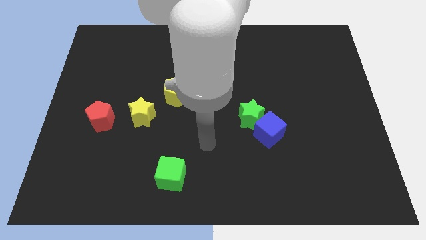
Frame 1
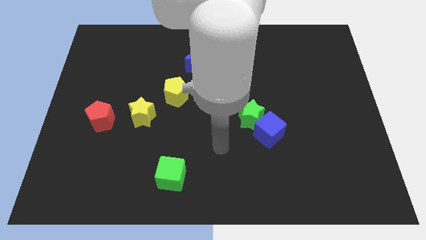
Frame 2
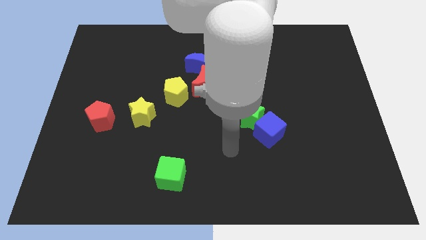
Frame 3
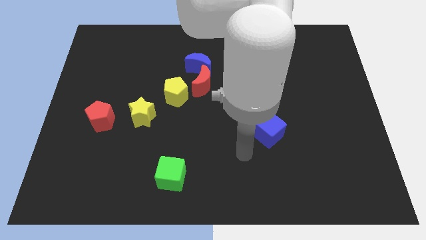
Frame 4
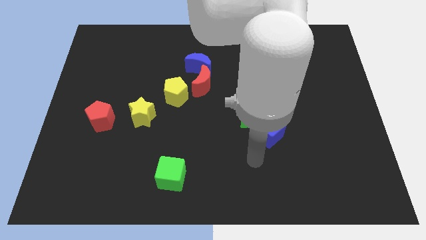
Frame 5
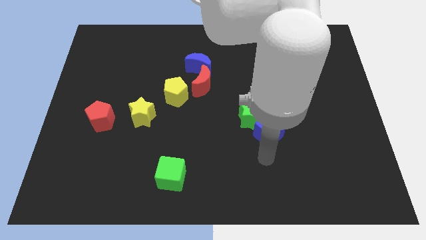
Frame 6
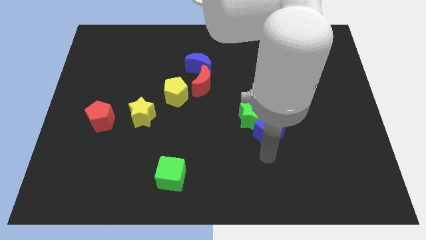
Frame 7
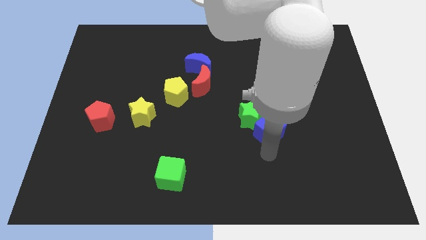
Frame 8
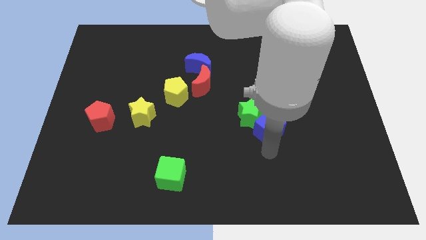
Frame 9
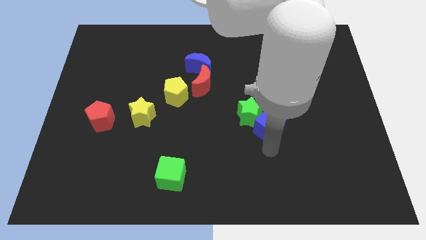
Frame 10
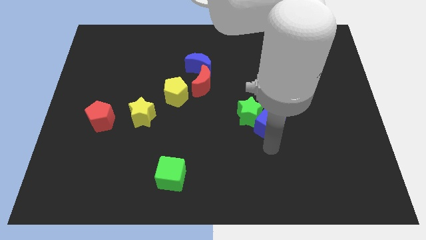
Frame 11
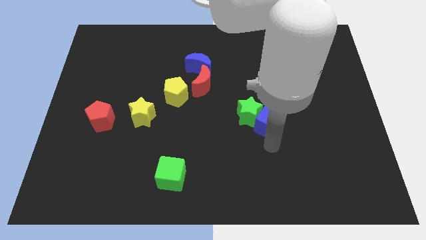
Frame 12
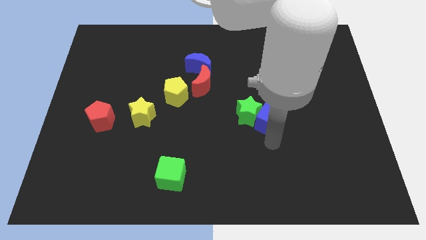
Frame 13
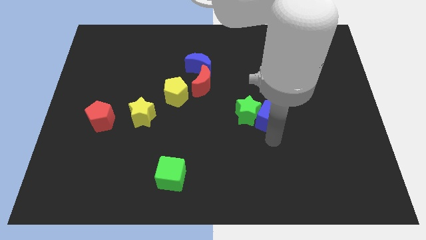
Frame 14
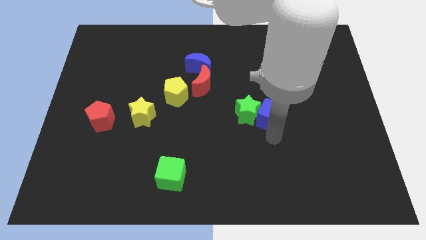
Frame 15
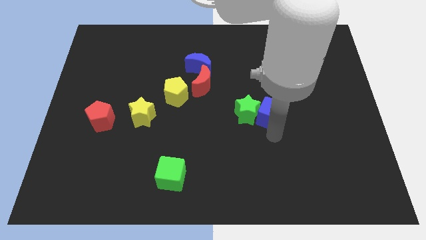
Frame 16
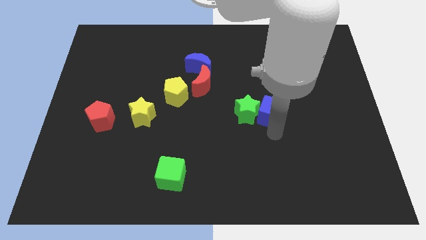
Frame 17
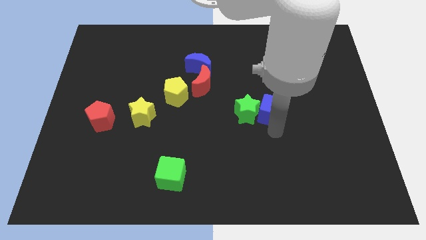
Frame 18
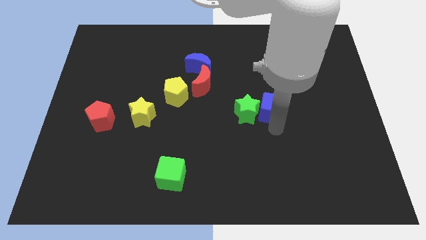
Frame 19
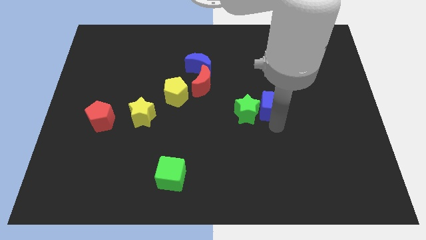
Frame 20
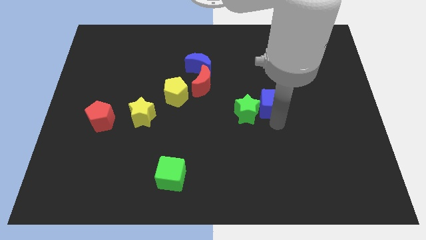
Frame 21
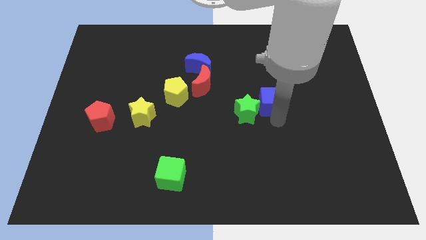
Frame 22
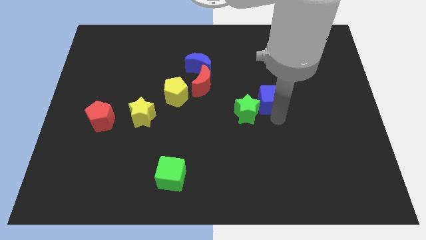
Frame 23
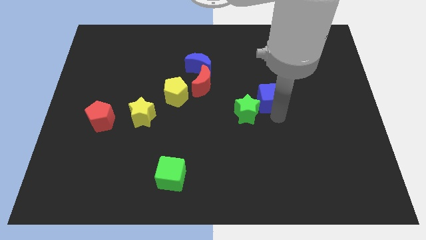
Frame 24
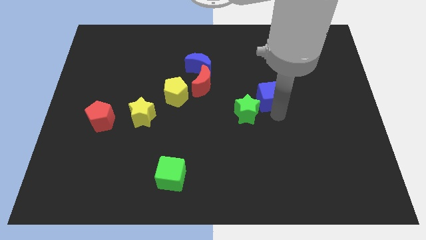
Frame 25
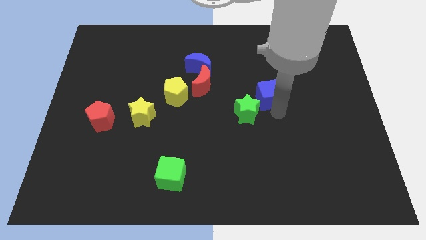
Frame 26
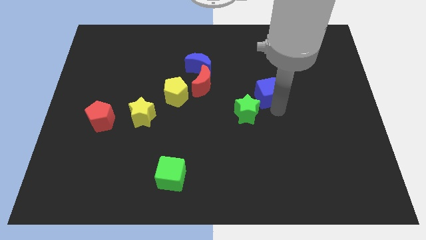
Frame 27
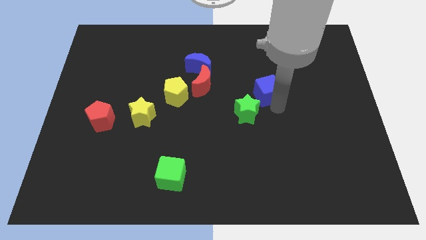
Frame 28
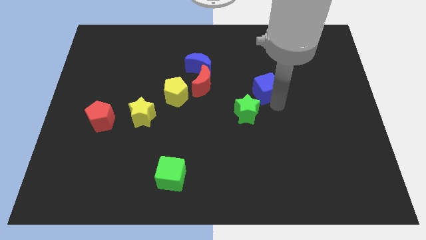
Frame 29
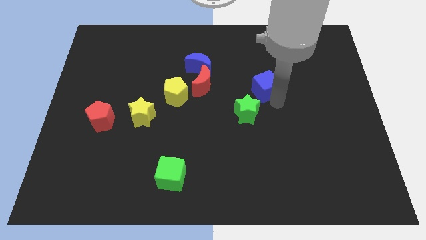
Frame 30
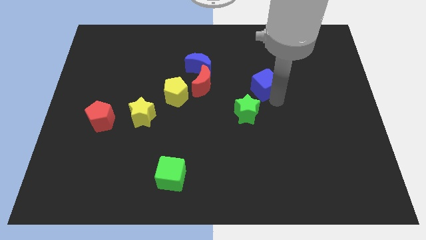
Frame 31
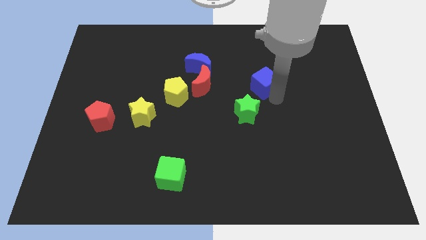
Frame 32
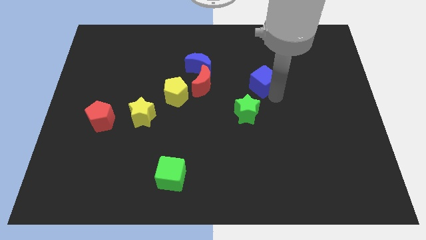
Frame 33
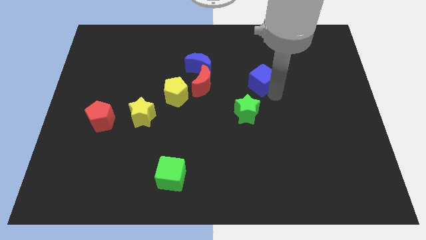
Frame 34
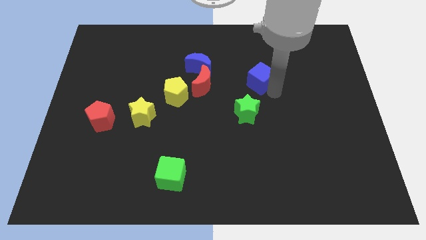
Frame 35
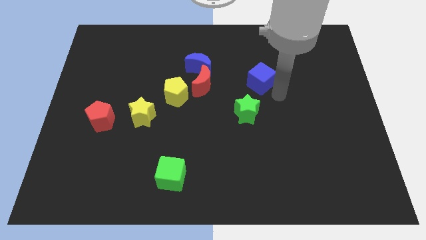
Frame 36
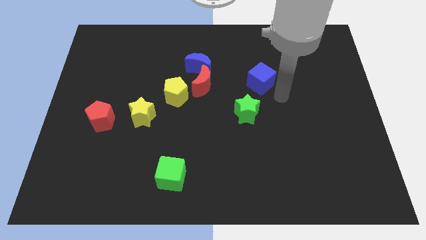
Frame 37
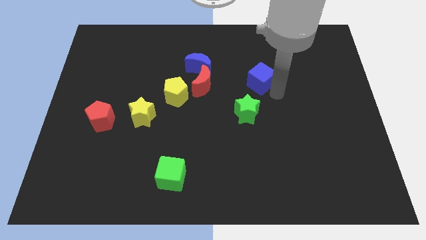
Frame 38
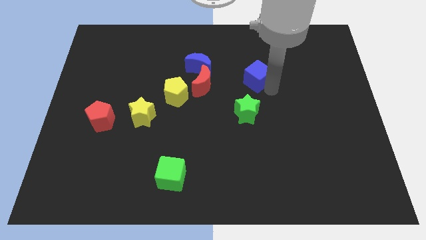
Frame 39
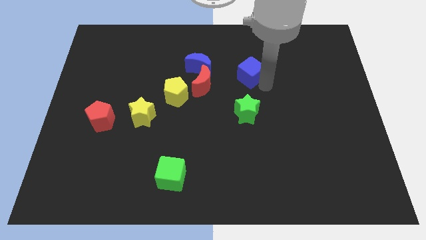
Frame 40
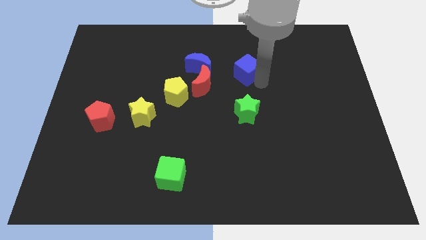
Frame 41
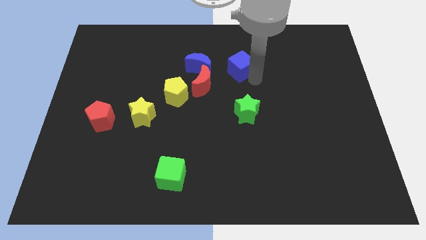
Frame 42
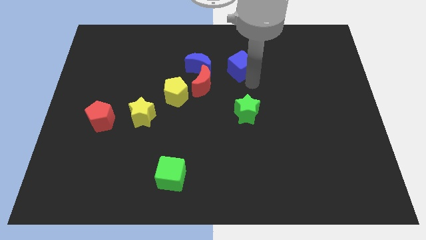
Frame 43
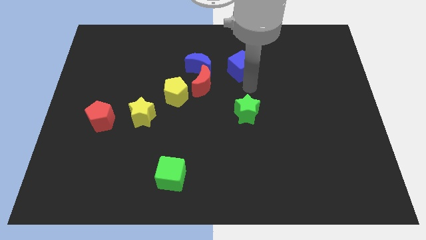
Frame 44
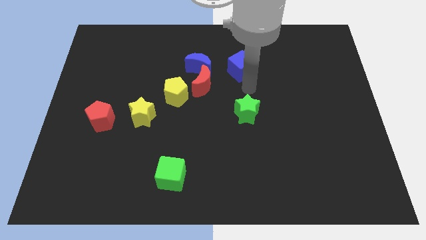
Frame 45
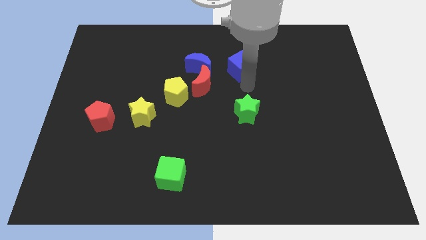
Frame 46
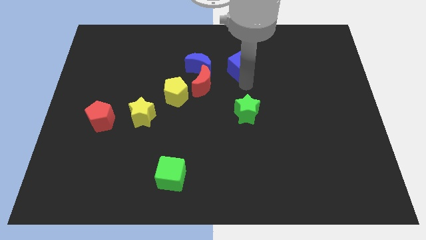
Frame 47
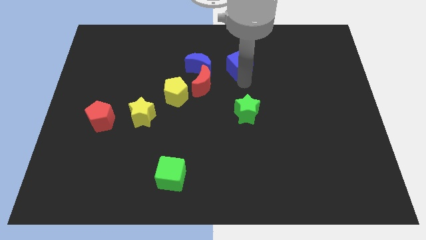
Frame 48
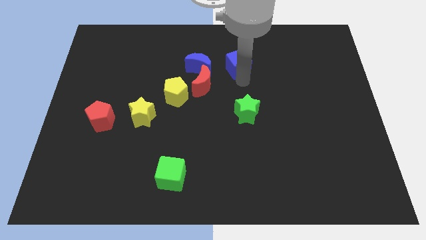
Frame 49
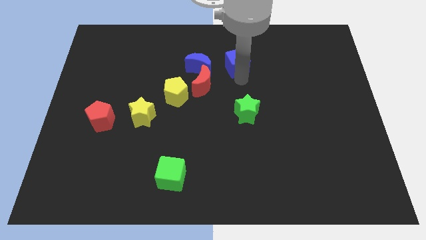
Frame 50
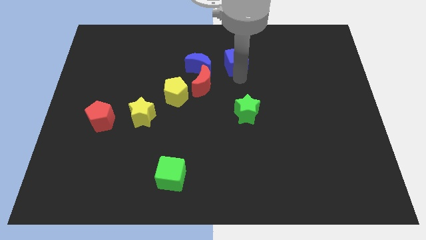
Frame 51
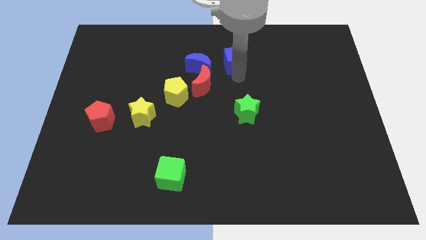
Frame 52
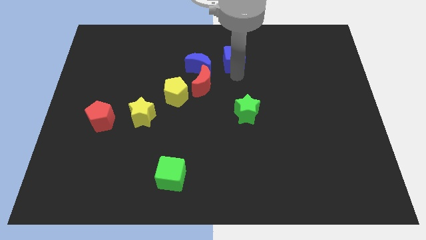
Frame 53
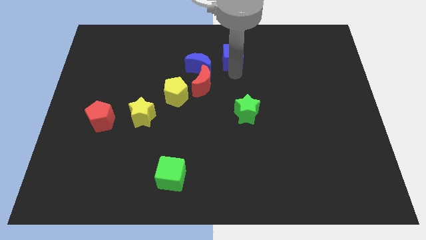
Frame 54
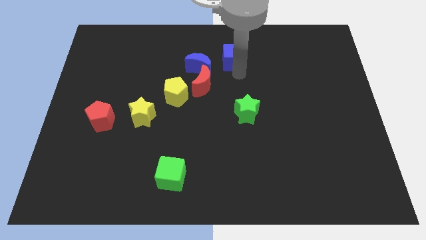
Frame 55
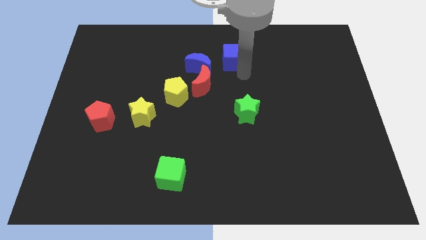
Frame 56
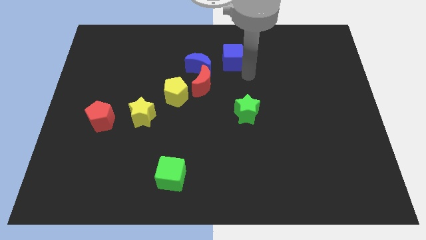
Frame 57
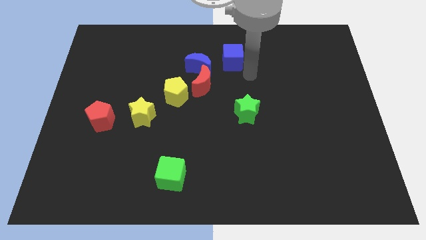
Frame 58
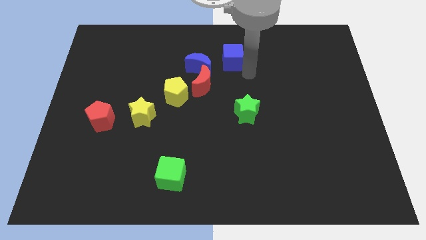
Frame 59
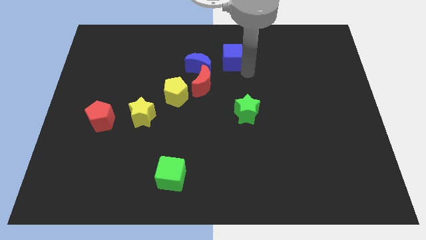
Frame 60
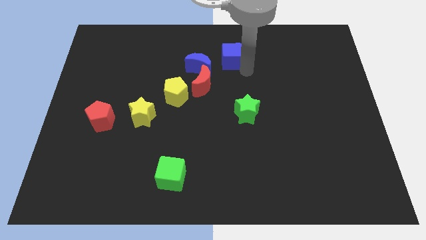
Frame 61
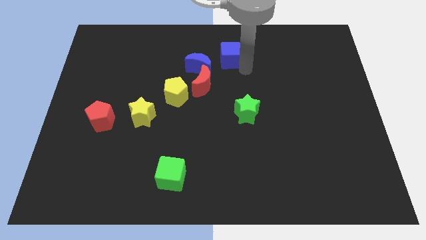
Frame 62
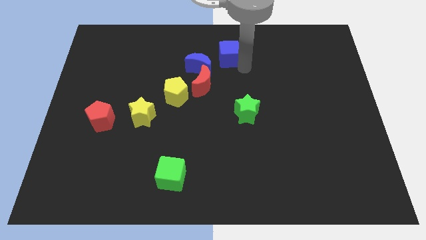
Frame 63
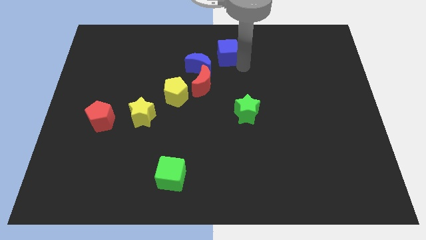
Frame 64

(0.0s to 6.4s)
put the blue cube to the top side
